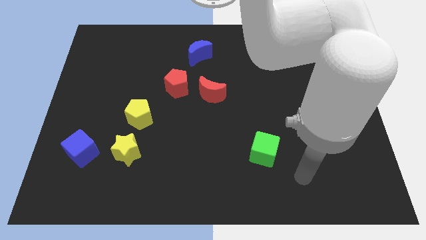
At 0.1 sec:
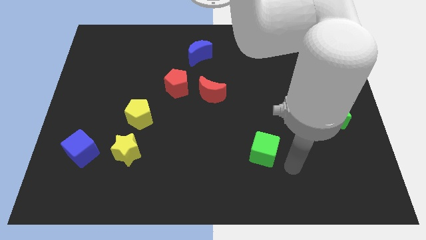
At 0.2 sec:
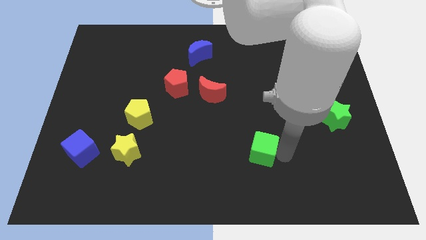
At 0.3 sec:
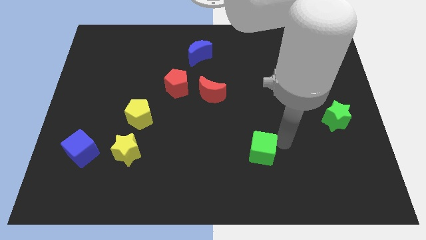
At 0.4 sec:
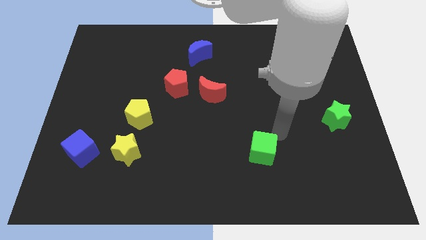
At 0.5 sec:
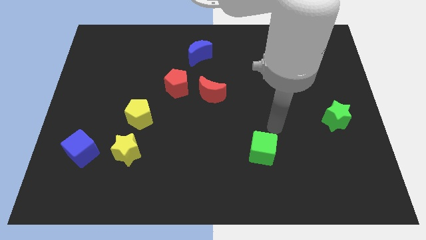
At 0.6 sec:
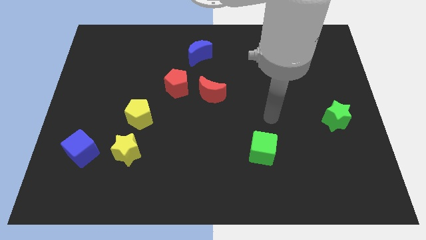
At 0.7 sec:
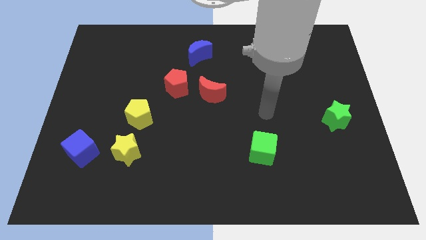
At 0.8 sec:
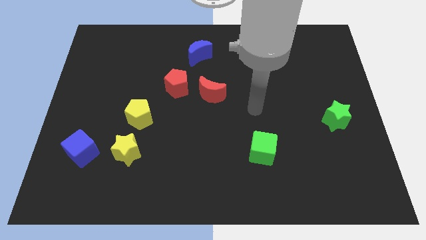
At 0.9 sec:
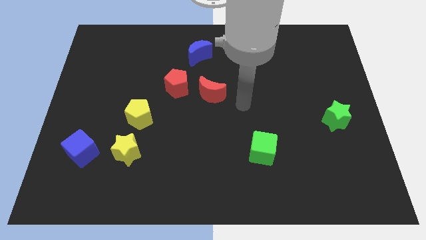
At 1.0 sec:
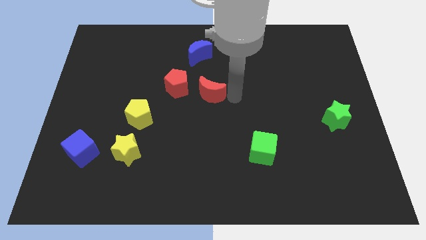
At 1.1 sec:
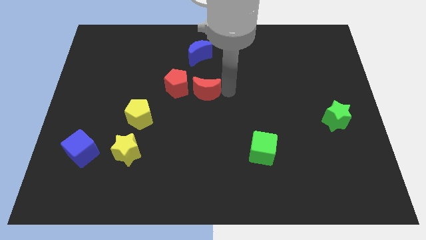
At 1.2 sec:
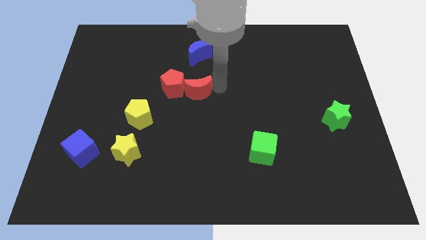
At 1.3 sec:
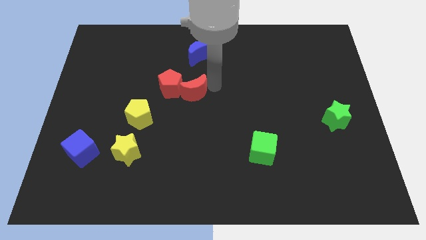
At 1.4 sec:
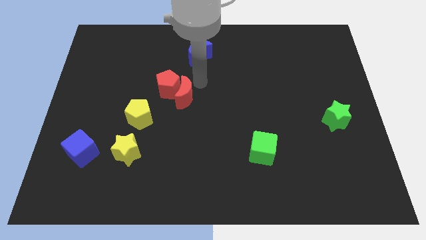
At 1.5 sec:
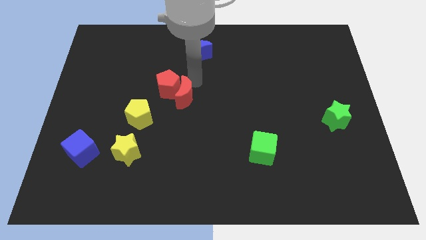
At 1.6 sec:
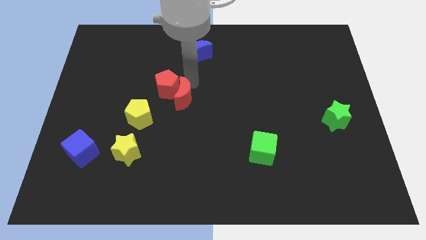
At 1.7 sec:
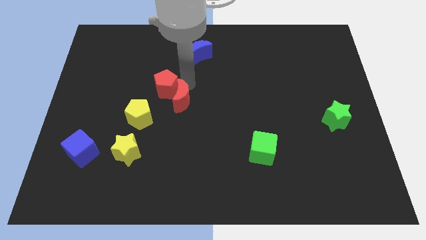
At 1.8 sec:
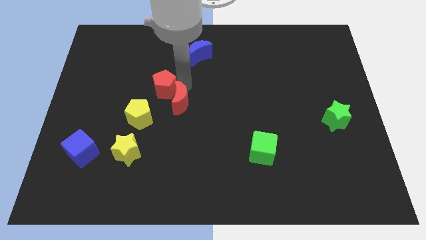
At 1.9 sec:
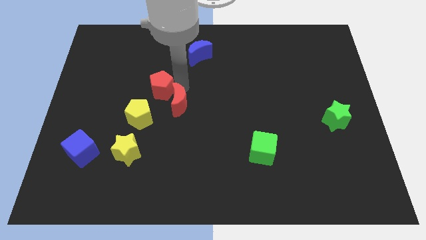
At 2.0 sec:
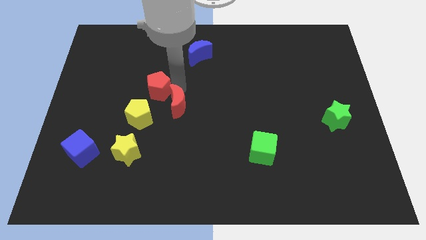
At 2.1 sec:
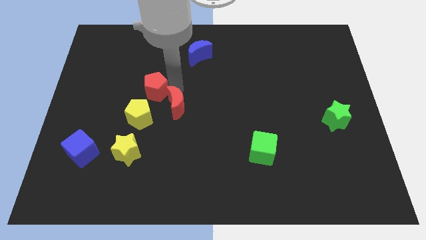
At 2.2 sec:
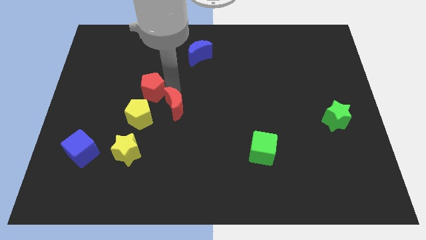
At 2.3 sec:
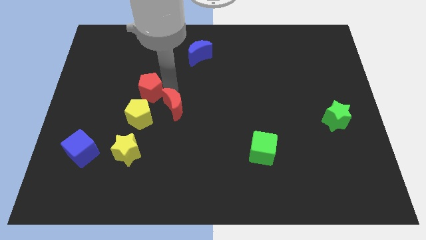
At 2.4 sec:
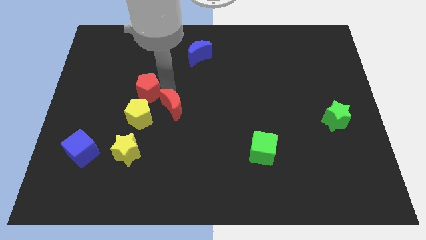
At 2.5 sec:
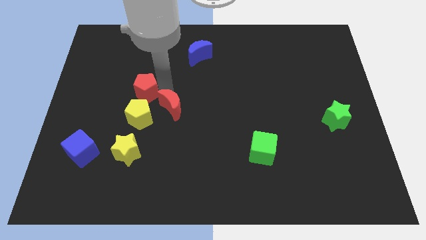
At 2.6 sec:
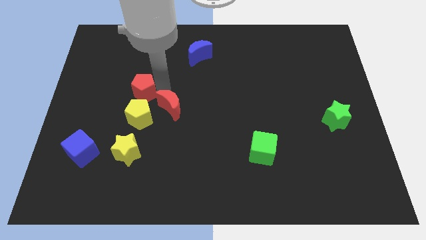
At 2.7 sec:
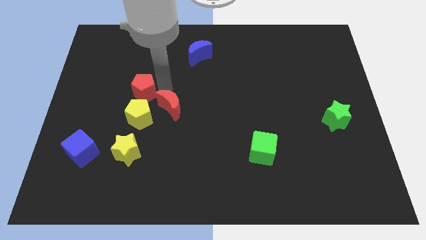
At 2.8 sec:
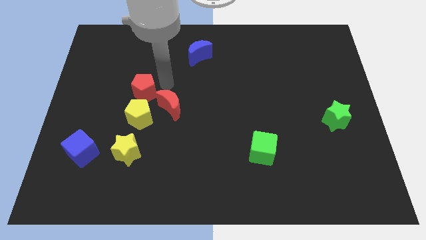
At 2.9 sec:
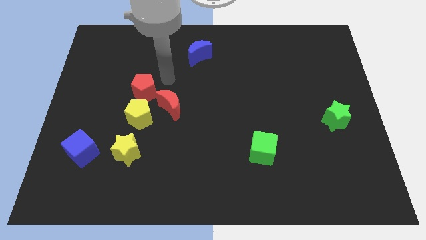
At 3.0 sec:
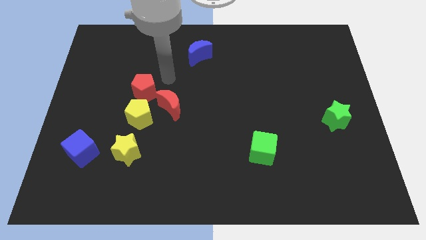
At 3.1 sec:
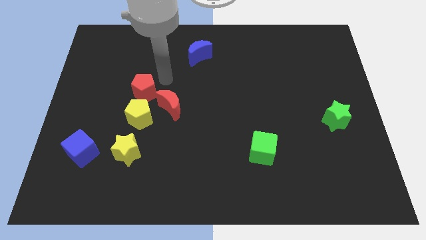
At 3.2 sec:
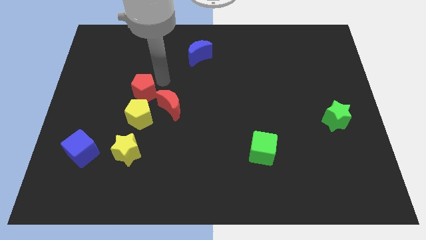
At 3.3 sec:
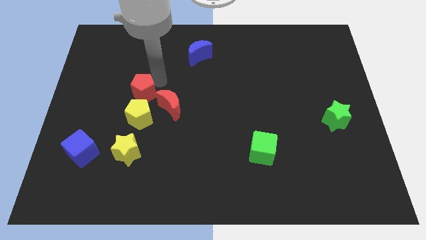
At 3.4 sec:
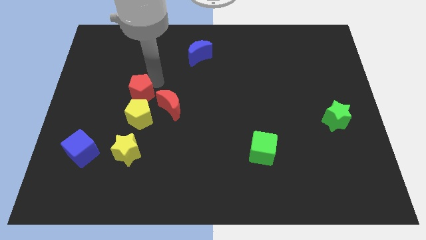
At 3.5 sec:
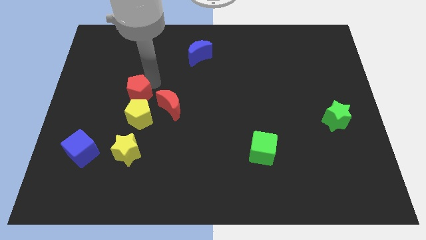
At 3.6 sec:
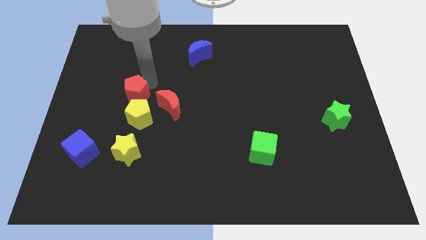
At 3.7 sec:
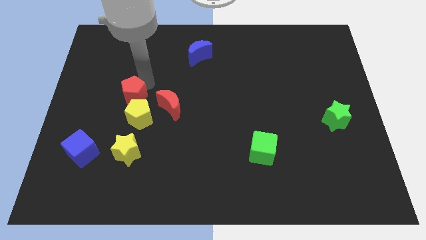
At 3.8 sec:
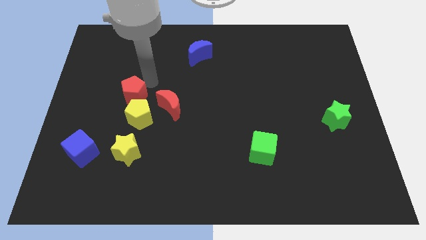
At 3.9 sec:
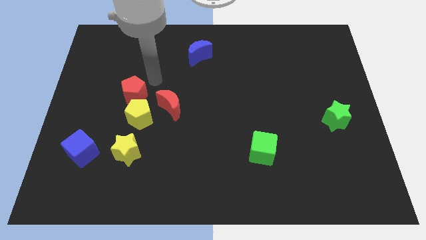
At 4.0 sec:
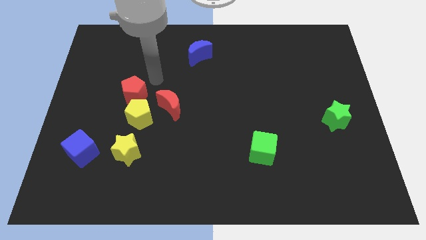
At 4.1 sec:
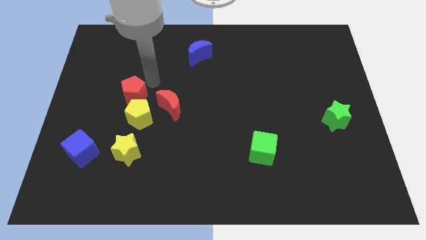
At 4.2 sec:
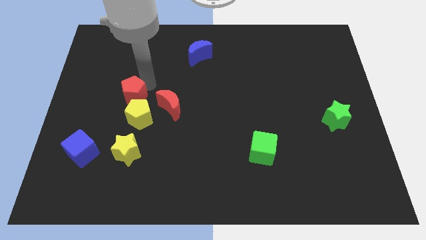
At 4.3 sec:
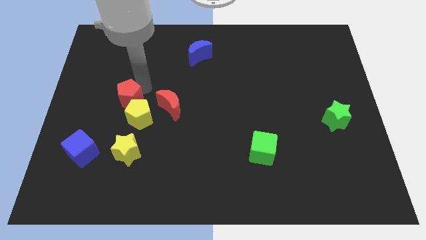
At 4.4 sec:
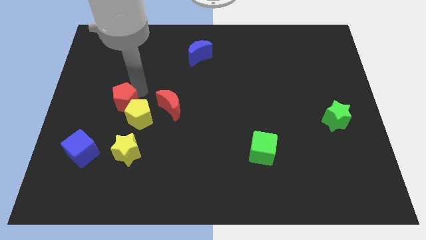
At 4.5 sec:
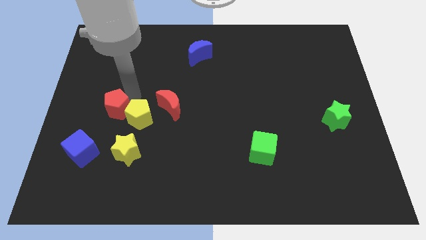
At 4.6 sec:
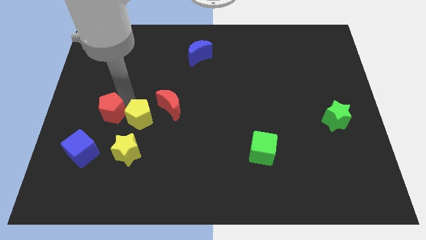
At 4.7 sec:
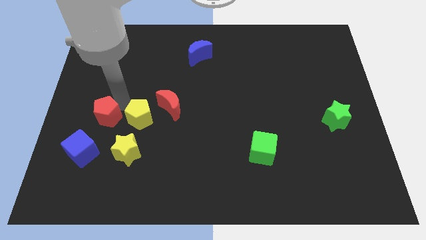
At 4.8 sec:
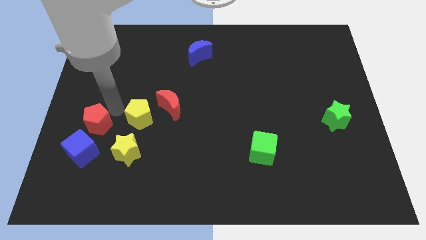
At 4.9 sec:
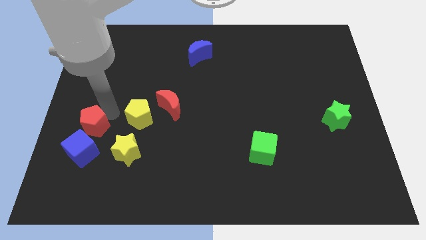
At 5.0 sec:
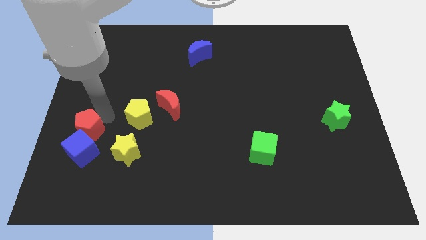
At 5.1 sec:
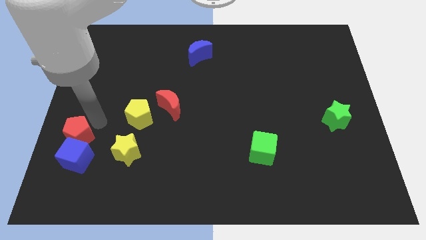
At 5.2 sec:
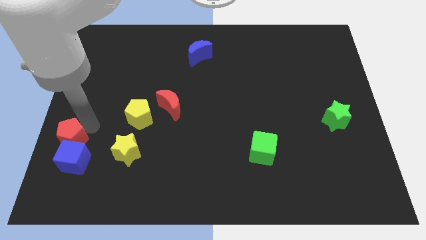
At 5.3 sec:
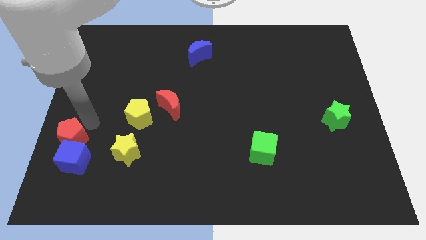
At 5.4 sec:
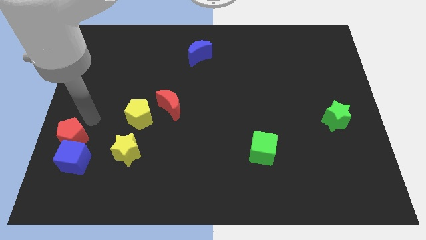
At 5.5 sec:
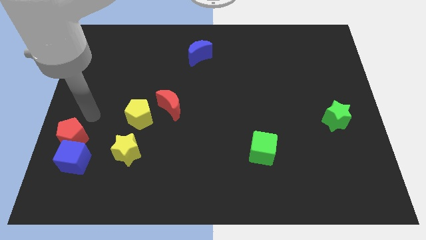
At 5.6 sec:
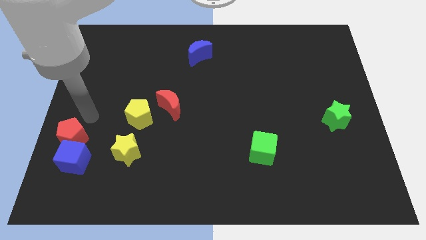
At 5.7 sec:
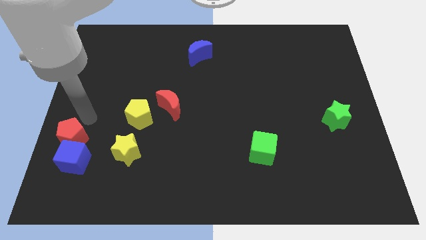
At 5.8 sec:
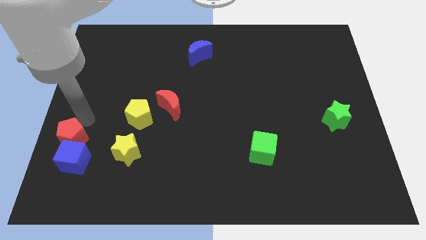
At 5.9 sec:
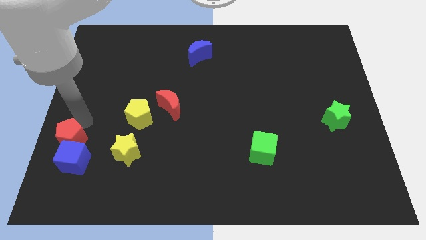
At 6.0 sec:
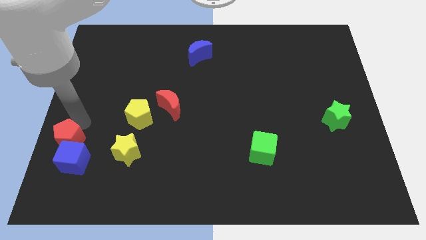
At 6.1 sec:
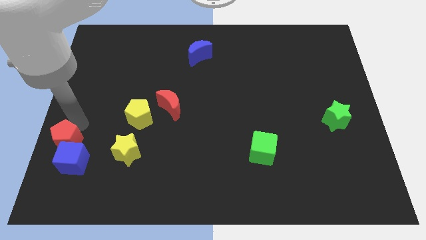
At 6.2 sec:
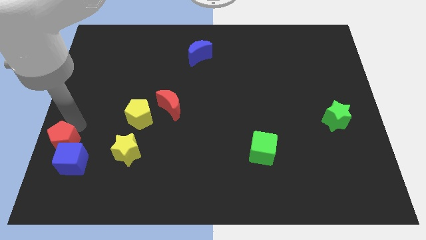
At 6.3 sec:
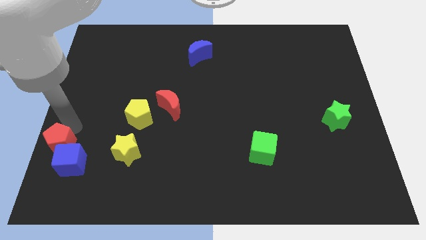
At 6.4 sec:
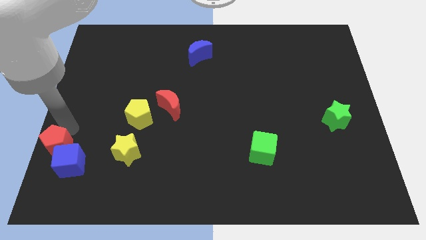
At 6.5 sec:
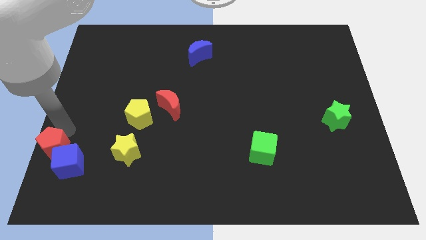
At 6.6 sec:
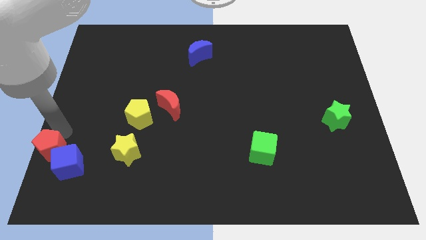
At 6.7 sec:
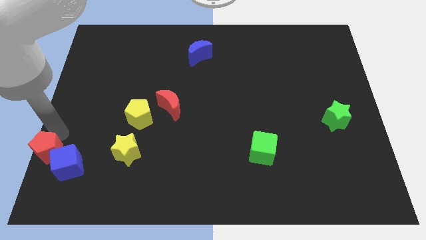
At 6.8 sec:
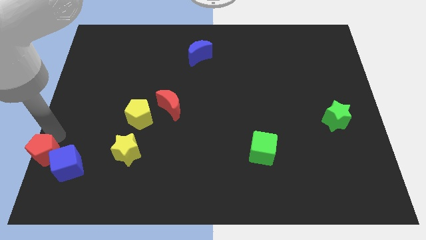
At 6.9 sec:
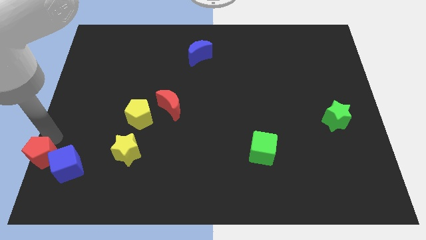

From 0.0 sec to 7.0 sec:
slide the red pentagon to the lower left corner

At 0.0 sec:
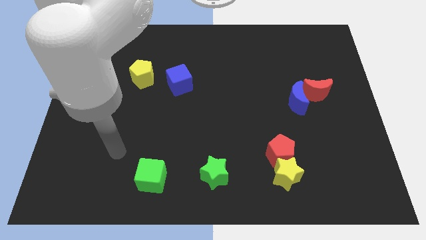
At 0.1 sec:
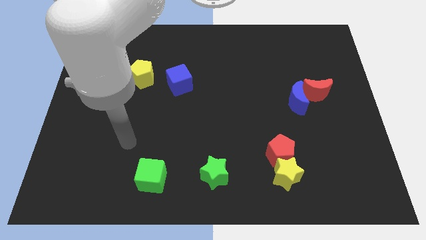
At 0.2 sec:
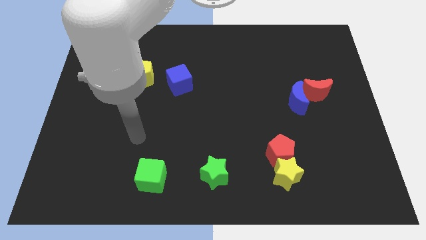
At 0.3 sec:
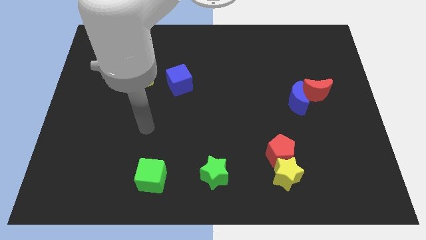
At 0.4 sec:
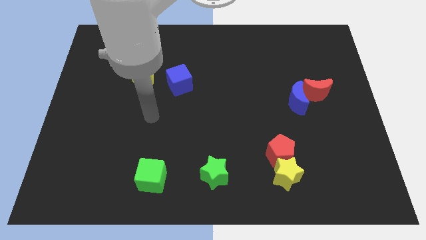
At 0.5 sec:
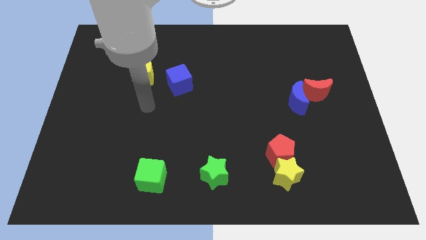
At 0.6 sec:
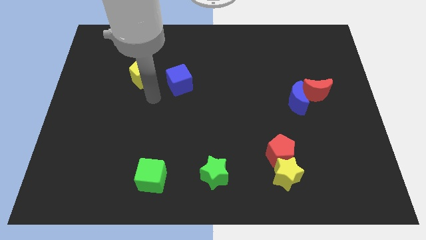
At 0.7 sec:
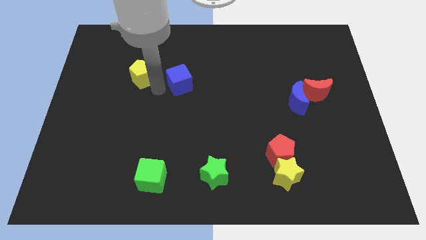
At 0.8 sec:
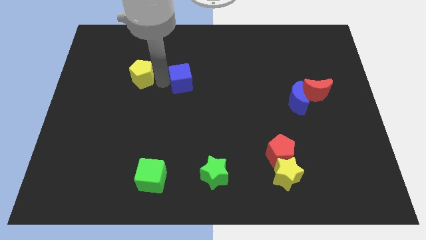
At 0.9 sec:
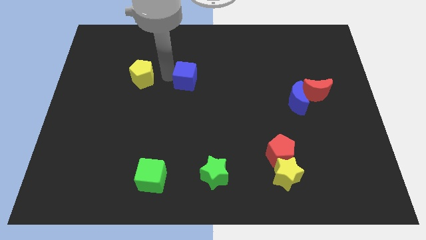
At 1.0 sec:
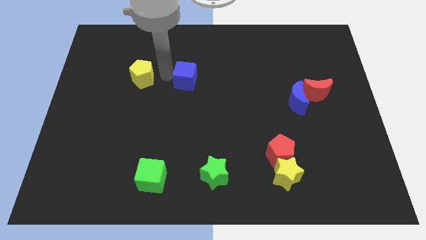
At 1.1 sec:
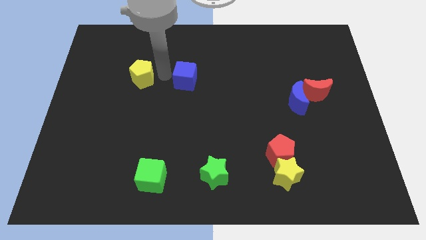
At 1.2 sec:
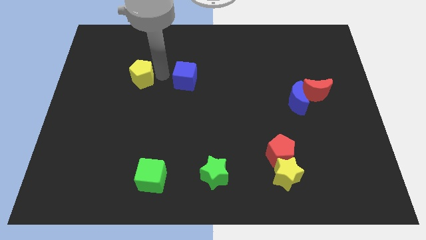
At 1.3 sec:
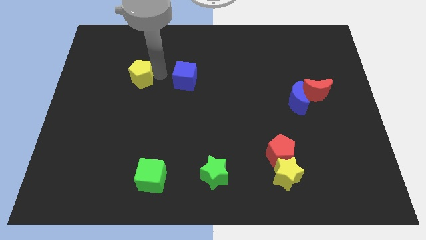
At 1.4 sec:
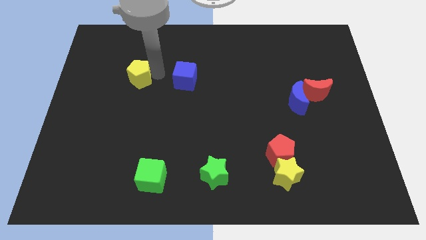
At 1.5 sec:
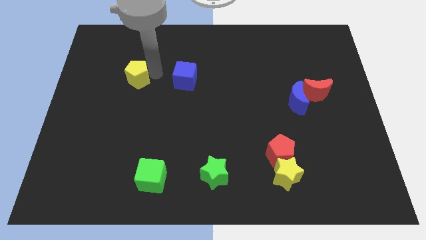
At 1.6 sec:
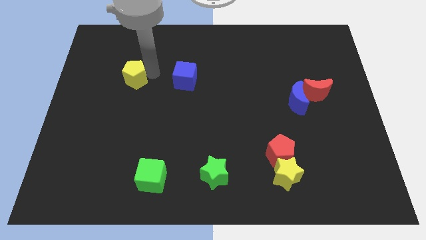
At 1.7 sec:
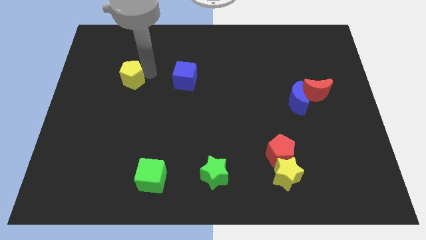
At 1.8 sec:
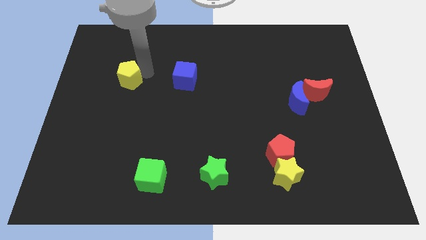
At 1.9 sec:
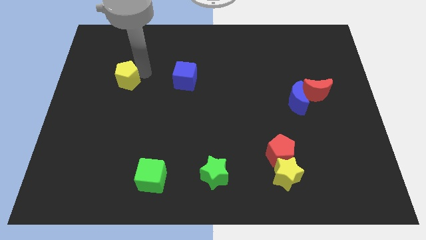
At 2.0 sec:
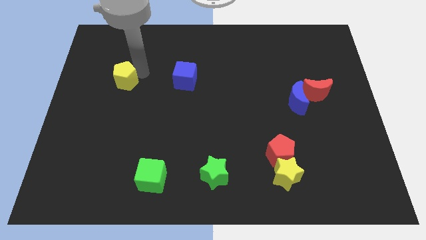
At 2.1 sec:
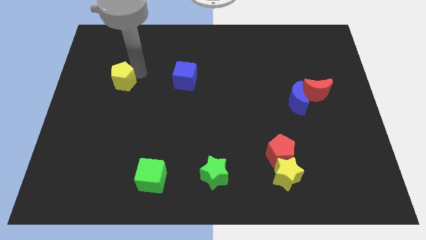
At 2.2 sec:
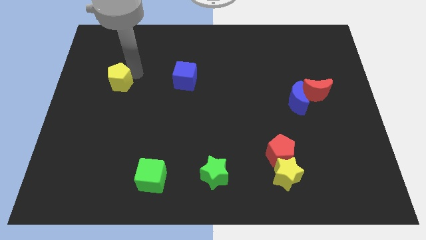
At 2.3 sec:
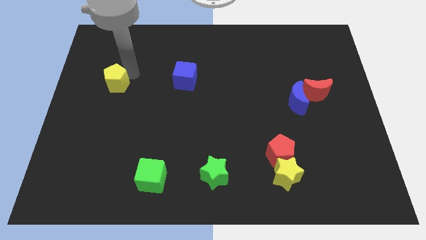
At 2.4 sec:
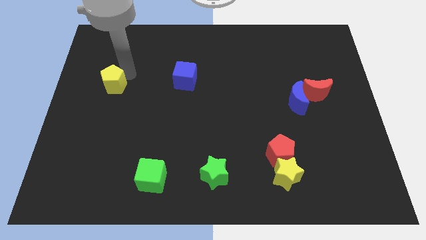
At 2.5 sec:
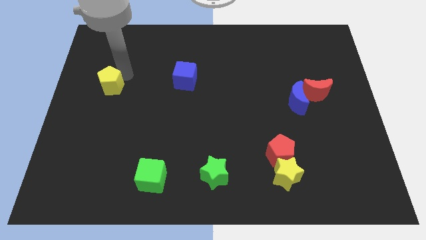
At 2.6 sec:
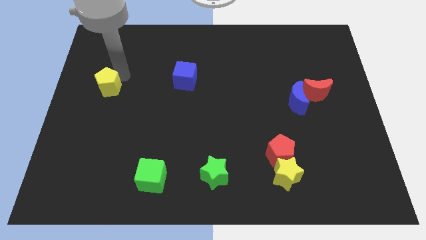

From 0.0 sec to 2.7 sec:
put the yellow pentagon to the left side of the board
